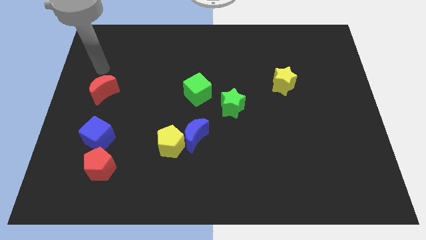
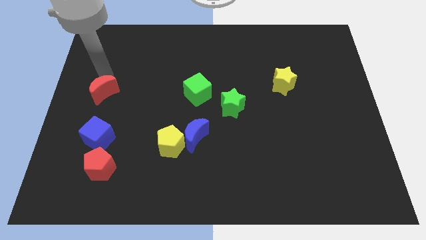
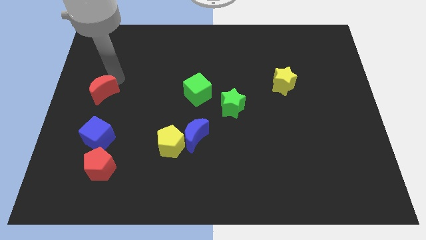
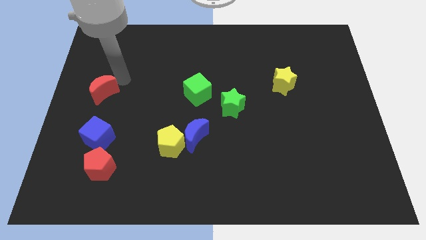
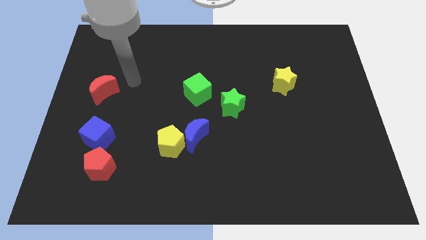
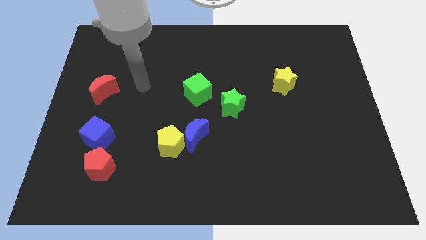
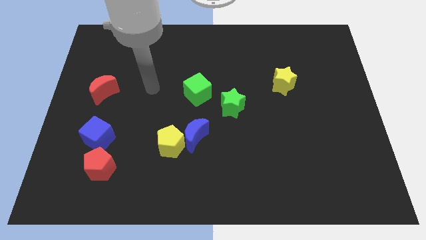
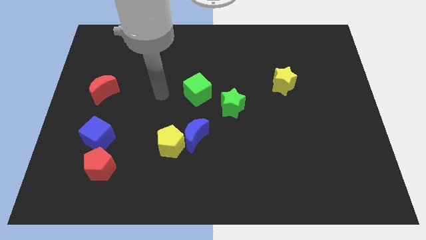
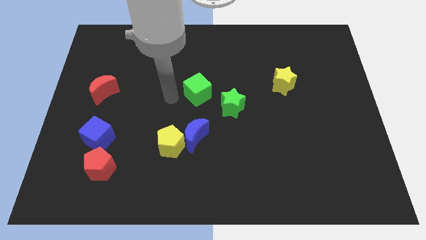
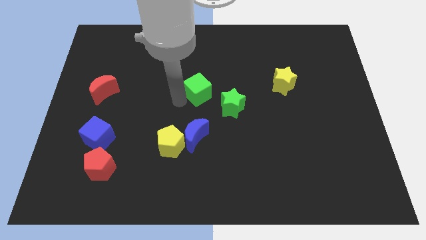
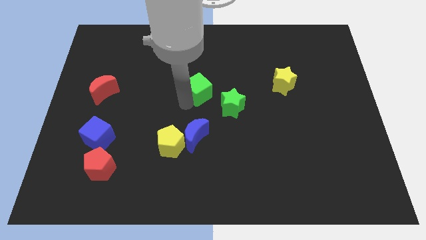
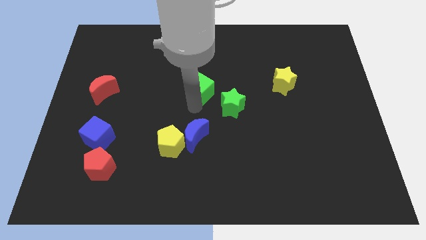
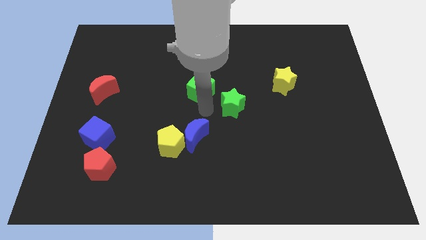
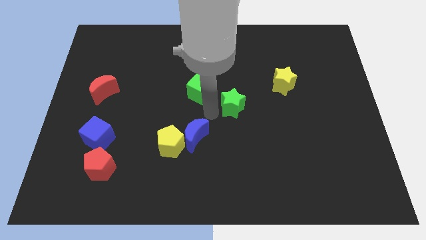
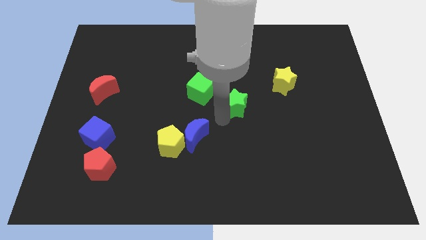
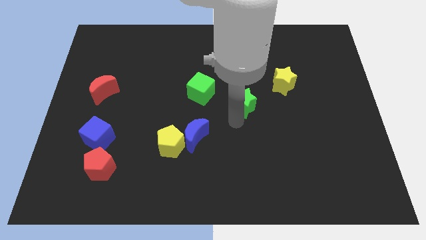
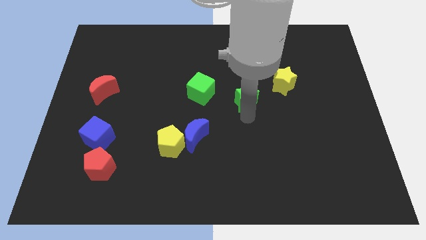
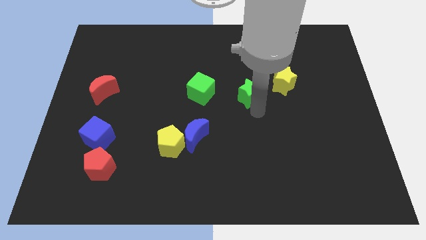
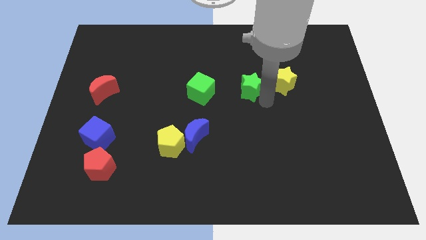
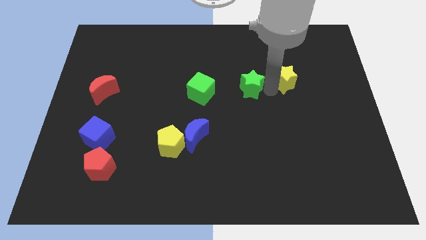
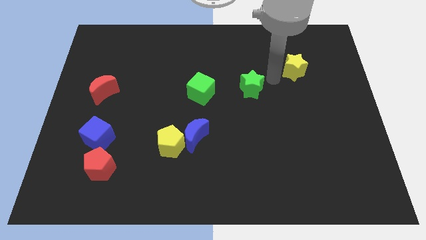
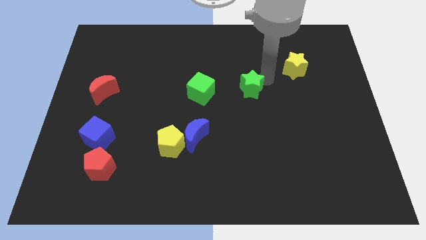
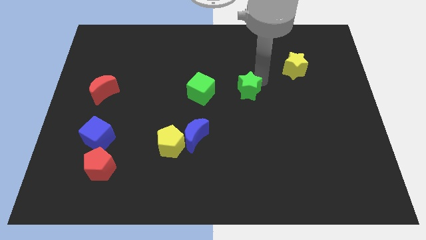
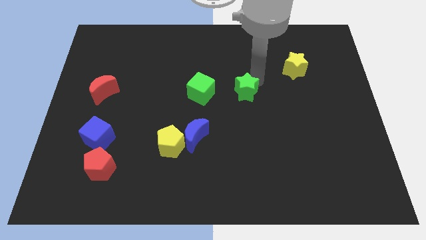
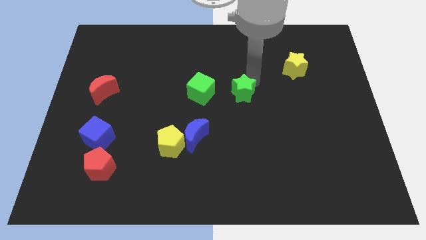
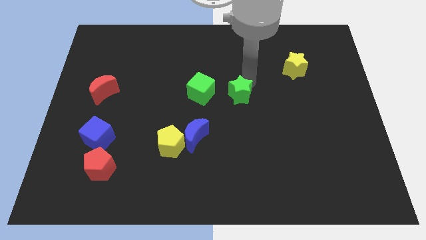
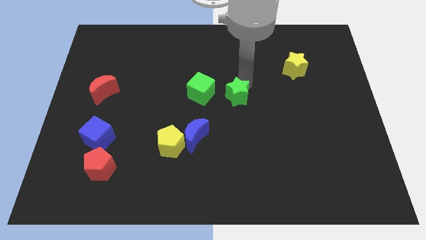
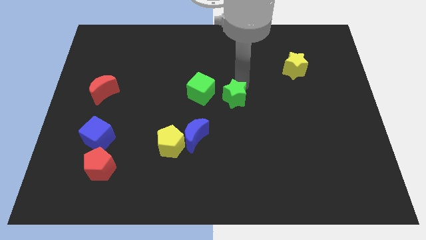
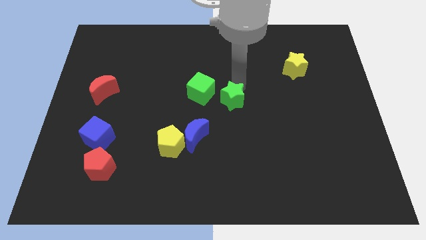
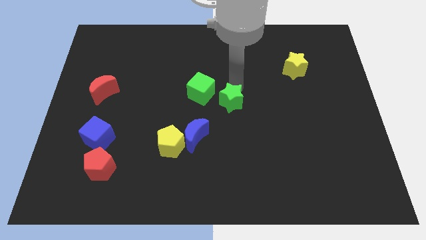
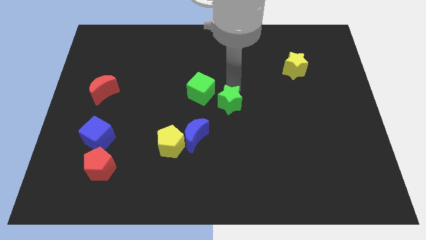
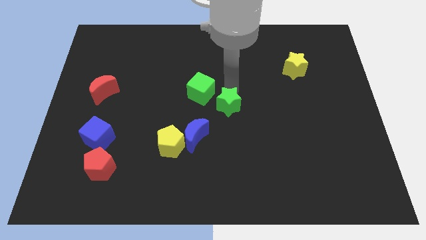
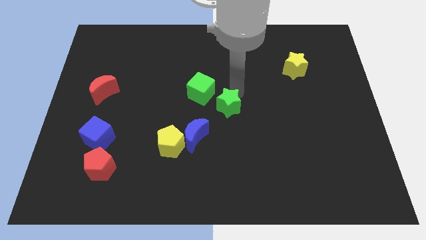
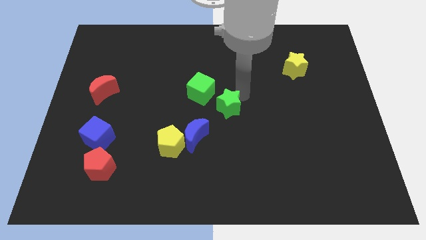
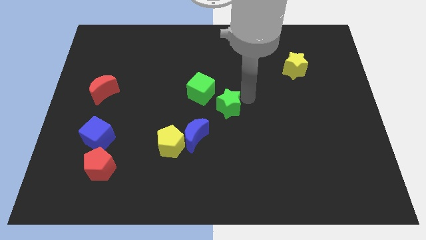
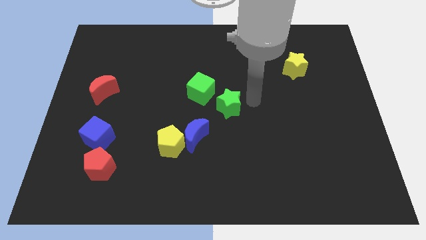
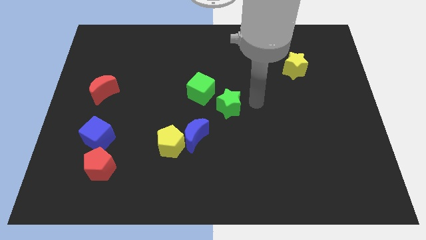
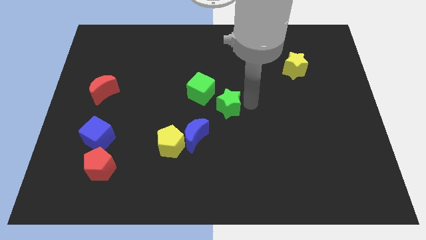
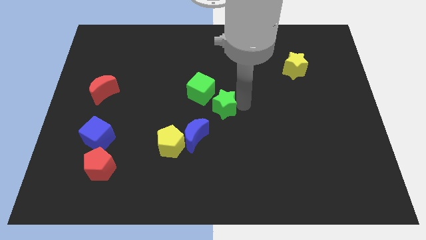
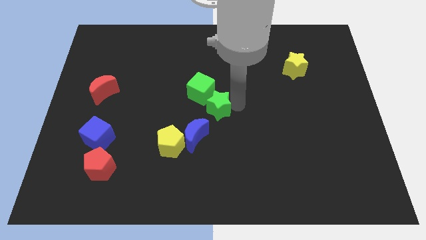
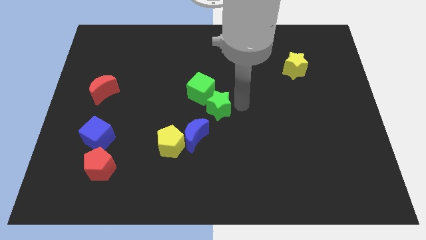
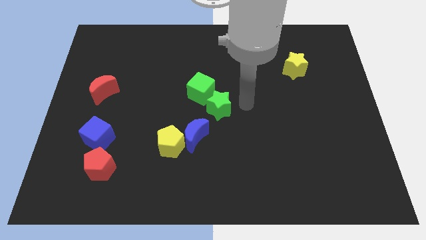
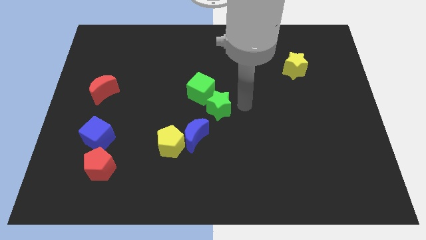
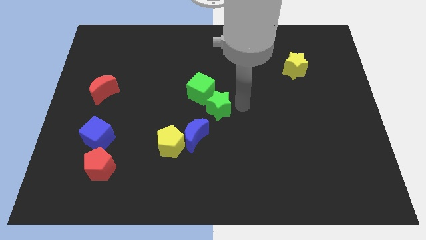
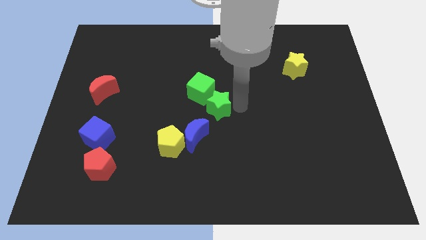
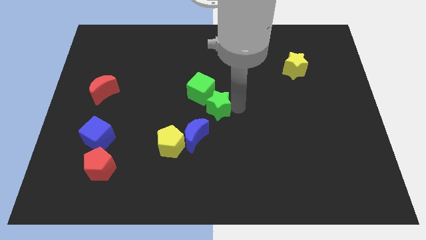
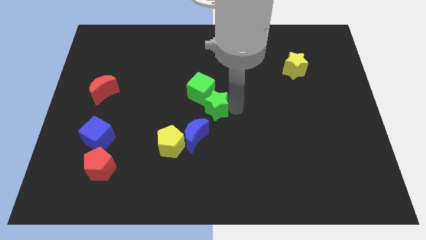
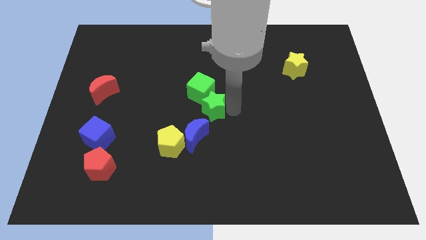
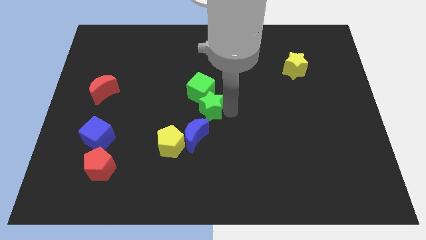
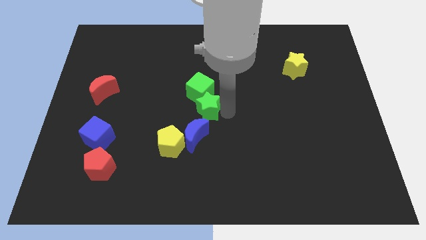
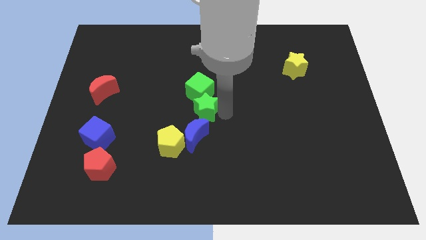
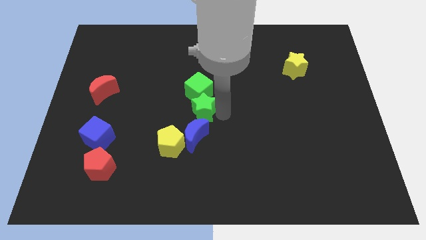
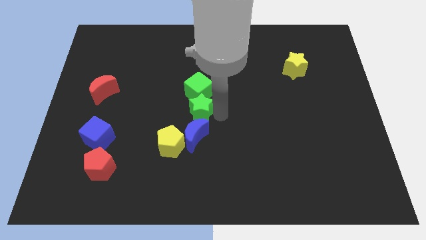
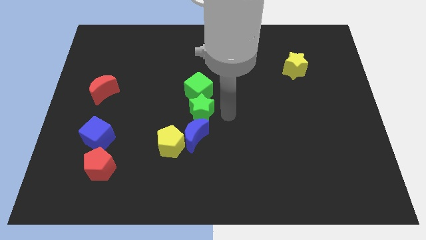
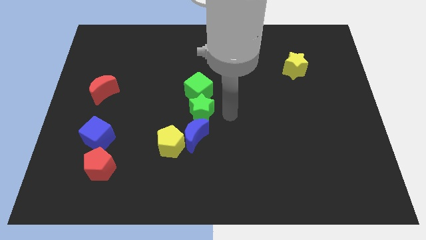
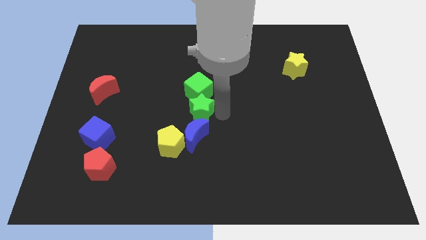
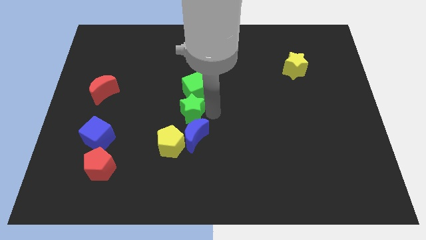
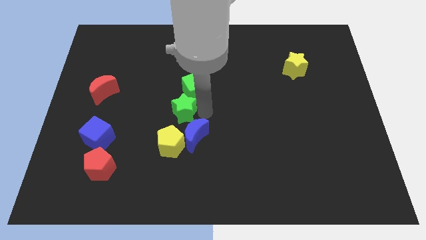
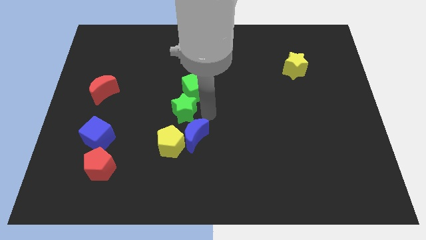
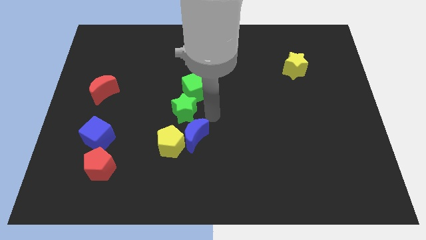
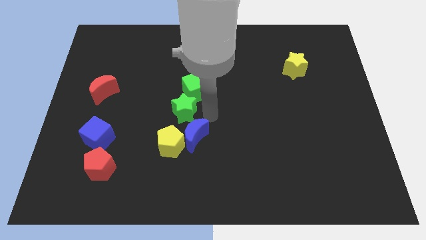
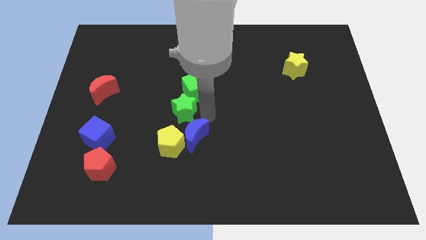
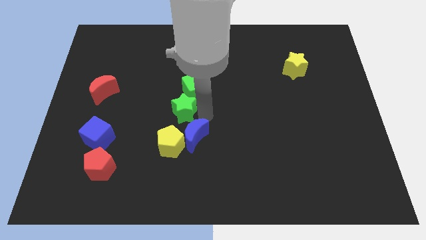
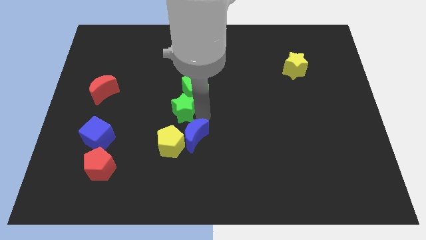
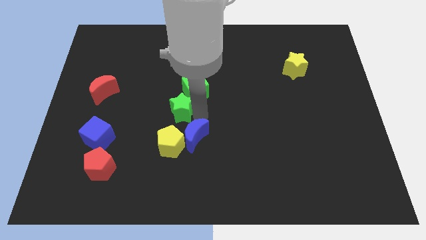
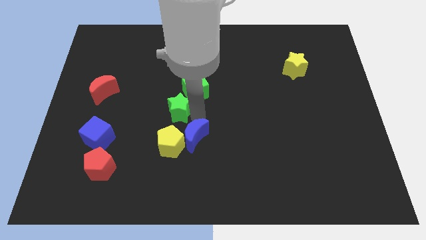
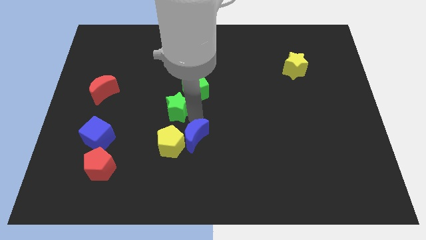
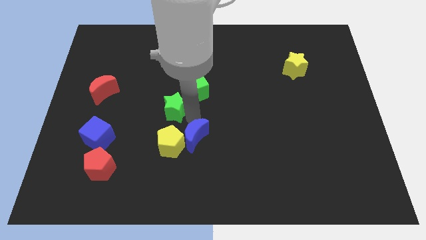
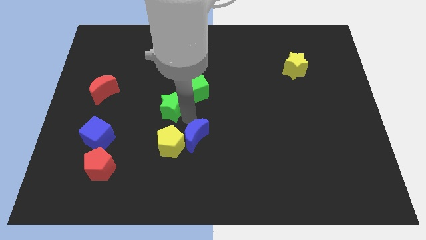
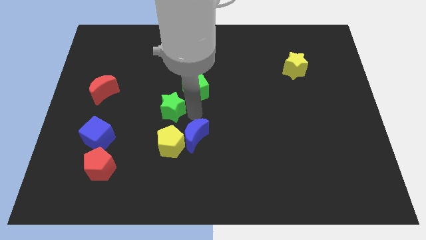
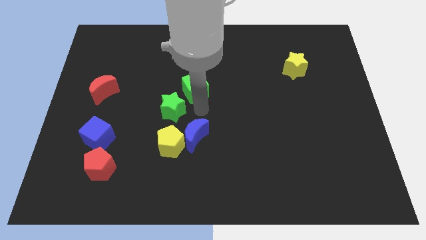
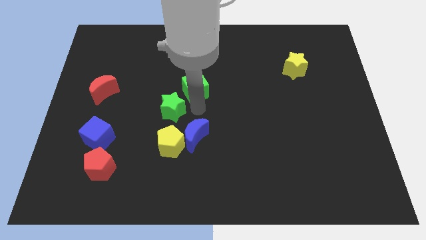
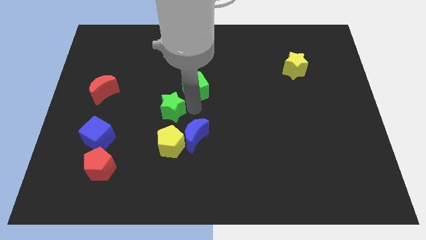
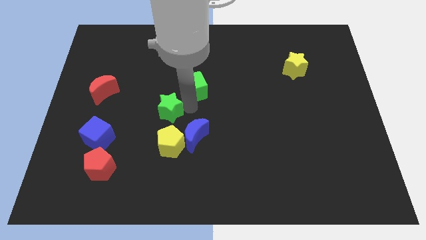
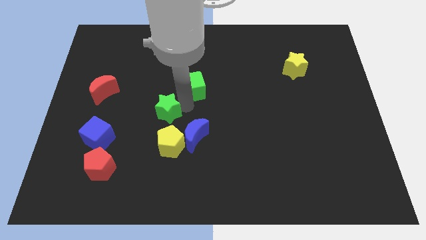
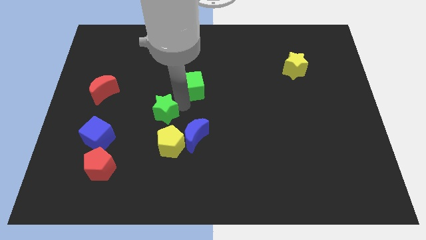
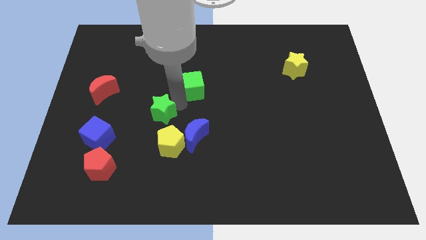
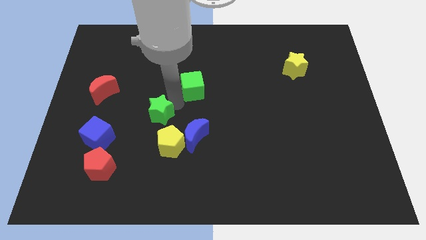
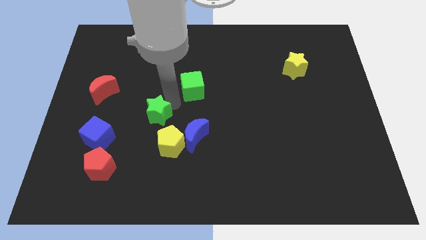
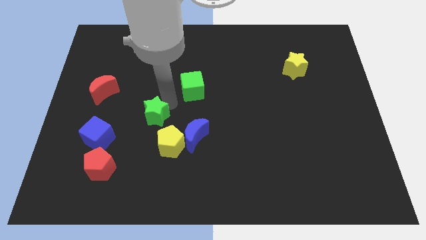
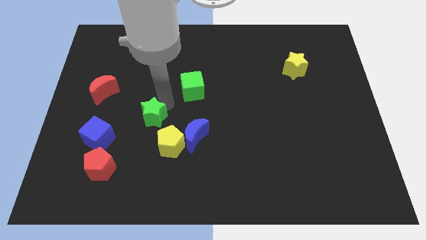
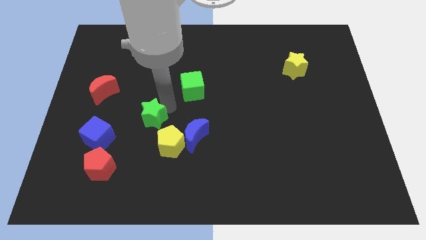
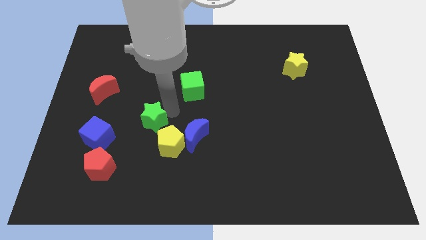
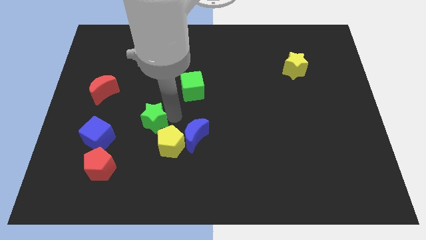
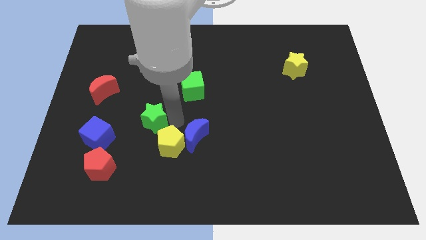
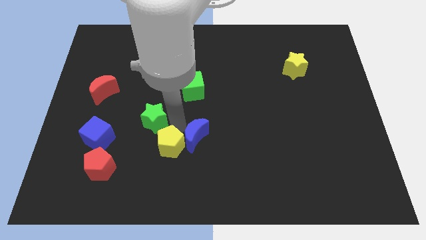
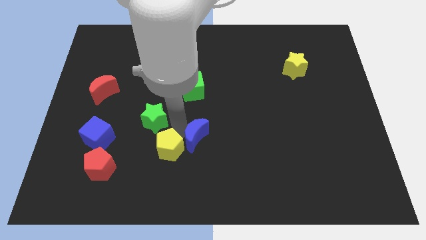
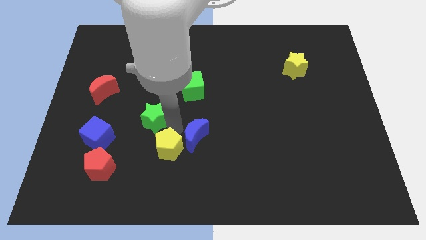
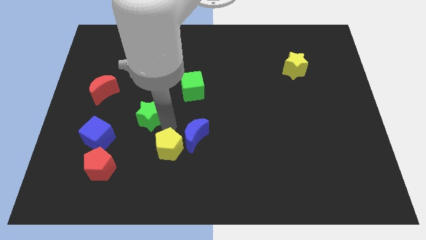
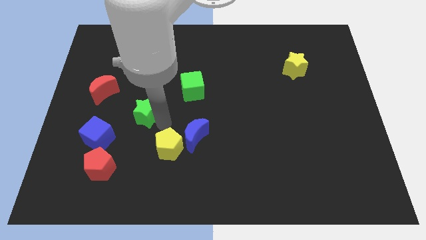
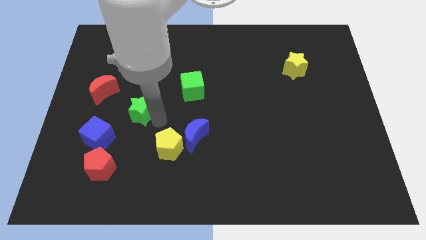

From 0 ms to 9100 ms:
move the green star to the bottom right side of the red moon
